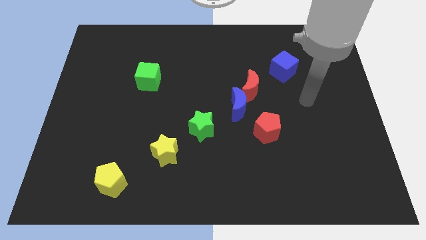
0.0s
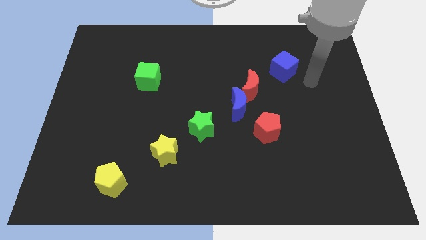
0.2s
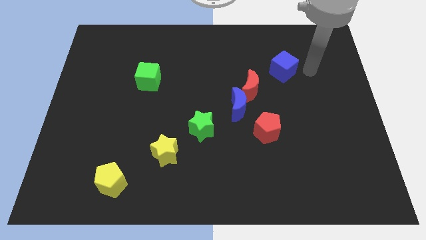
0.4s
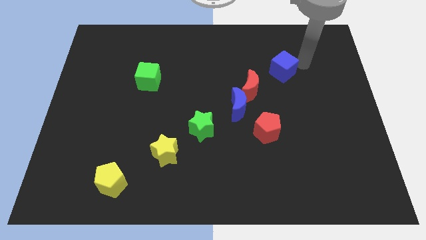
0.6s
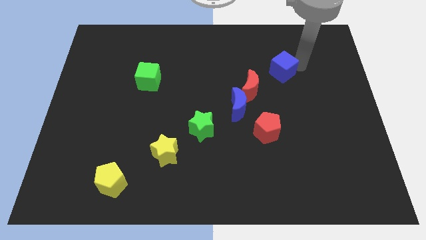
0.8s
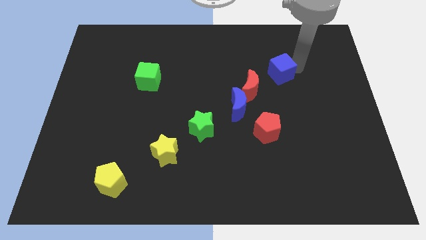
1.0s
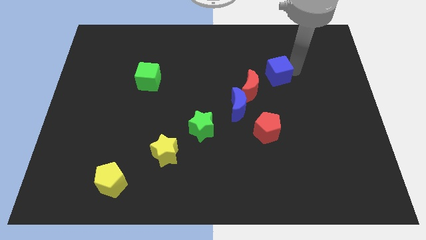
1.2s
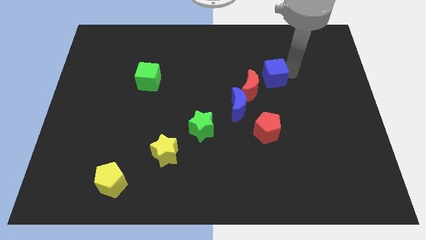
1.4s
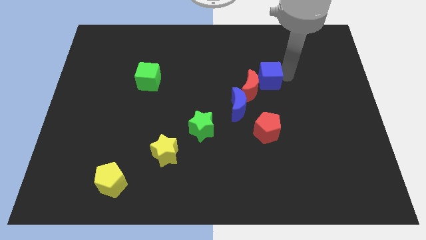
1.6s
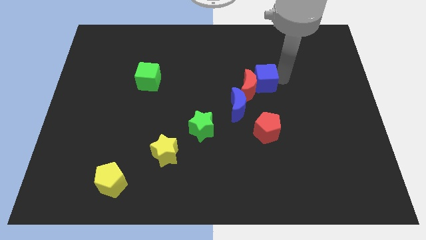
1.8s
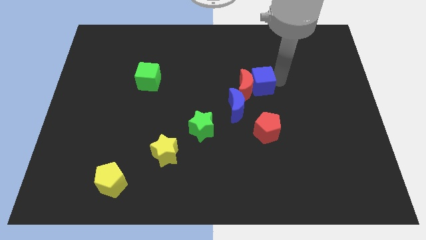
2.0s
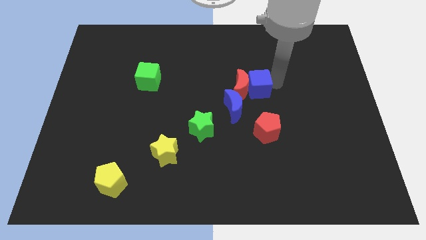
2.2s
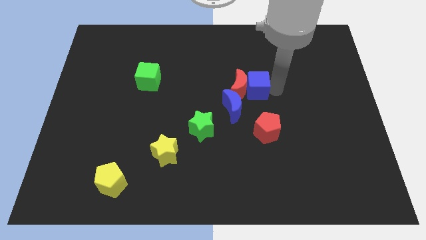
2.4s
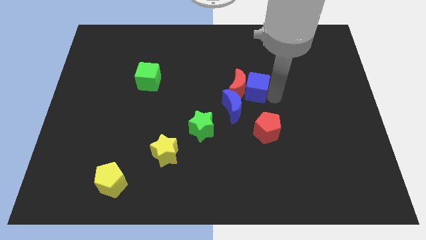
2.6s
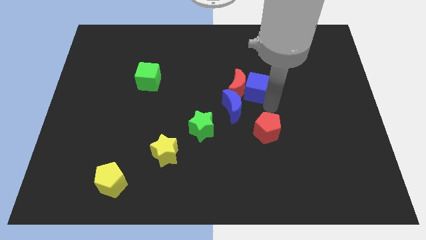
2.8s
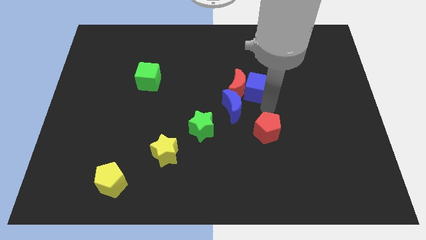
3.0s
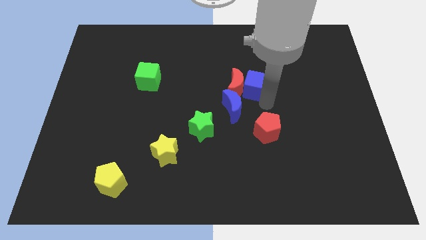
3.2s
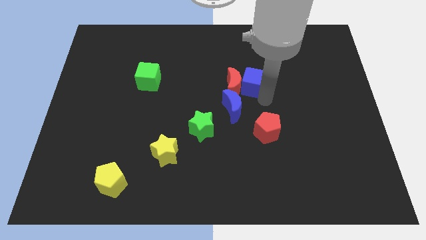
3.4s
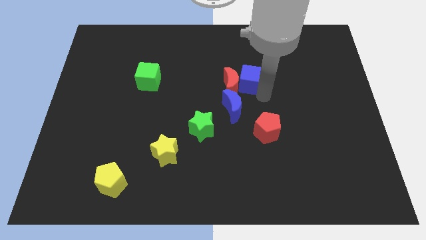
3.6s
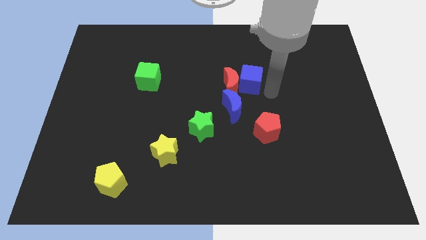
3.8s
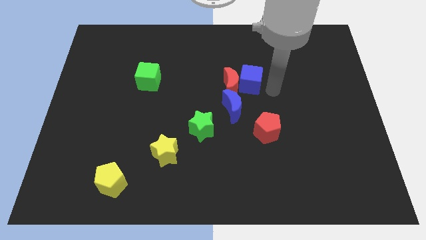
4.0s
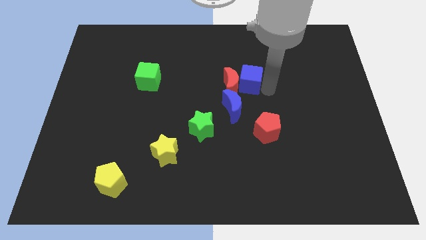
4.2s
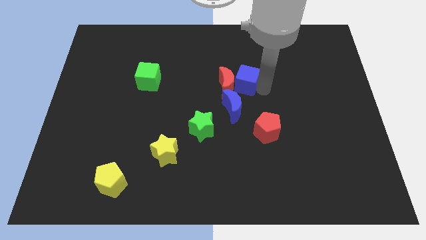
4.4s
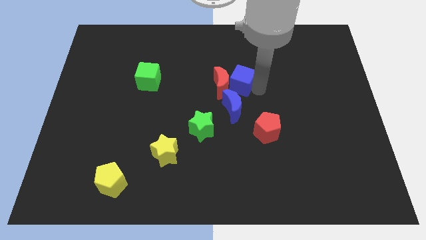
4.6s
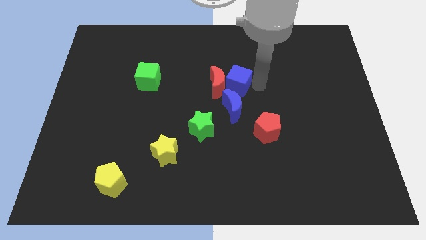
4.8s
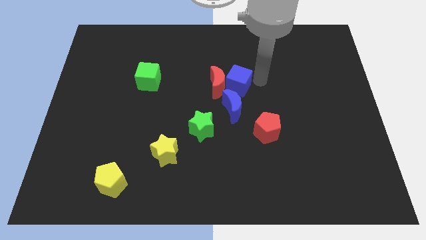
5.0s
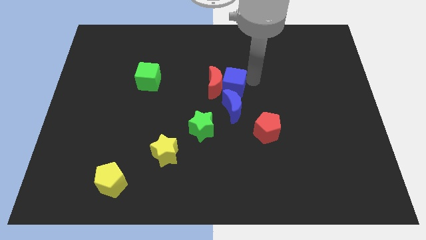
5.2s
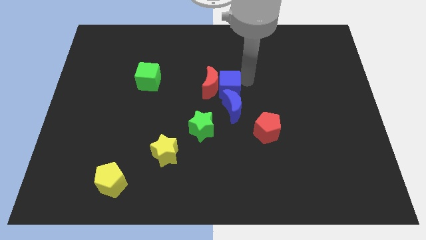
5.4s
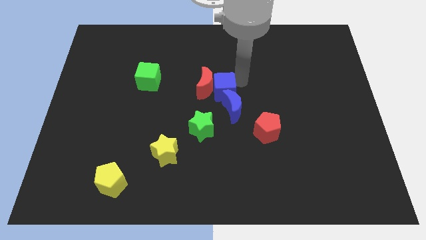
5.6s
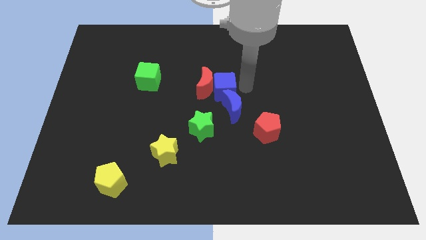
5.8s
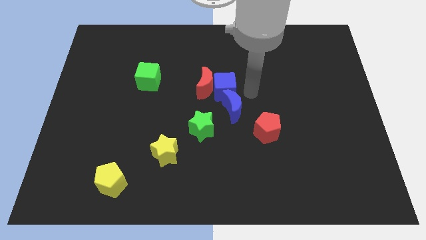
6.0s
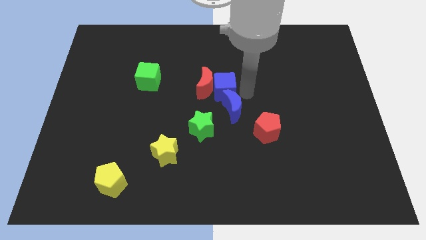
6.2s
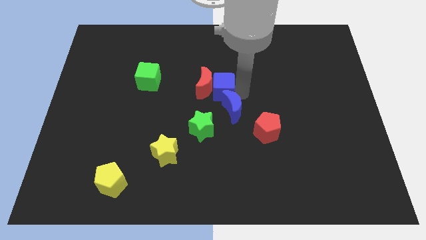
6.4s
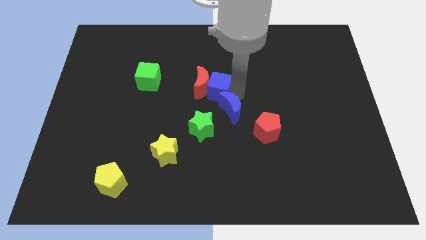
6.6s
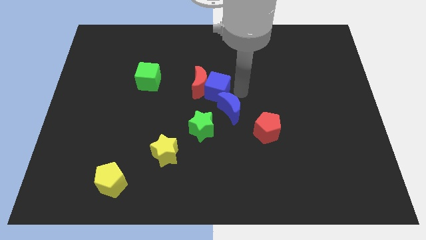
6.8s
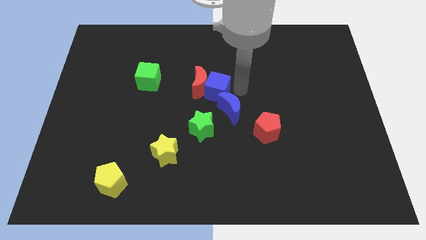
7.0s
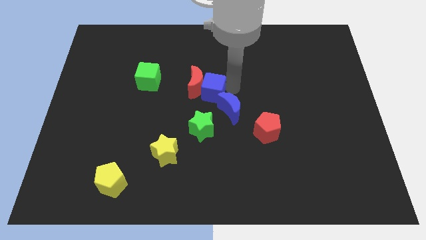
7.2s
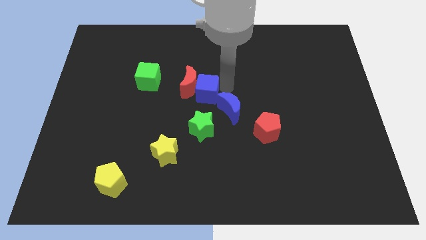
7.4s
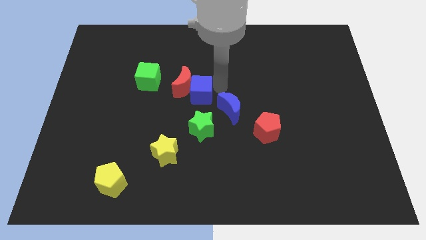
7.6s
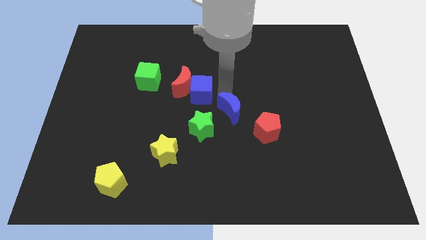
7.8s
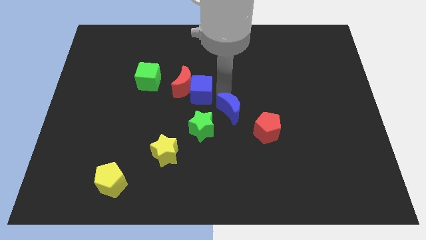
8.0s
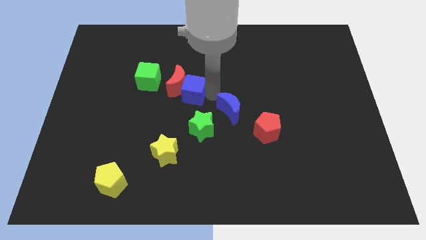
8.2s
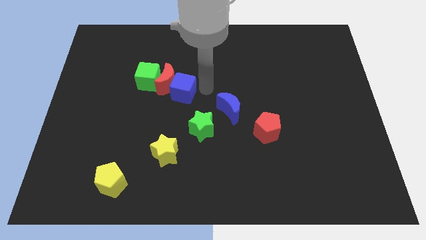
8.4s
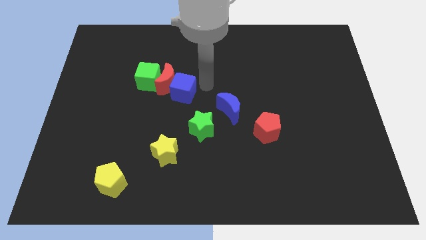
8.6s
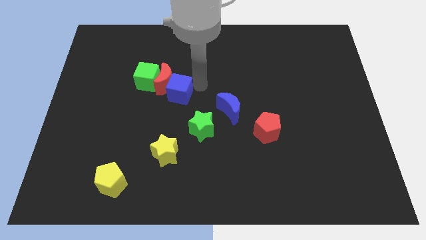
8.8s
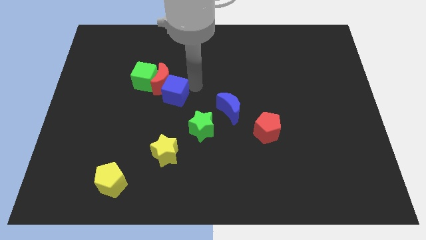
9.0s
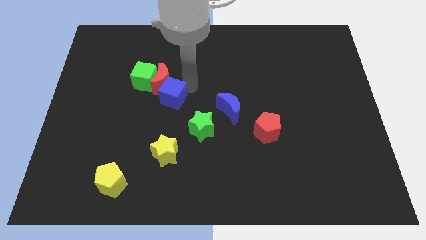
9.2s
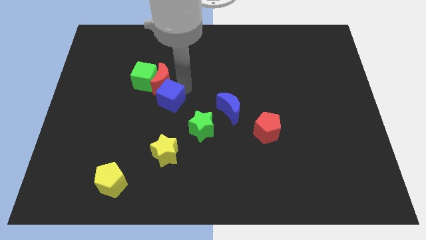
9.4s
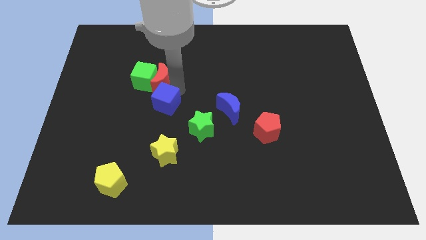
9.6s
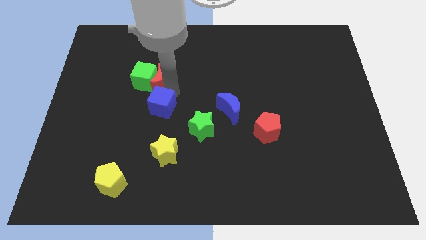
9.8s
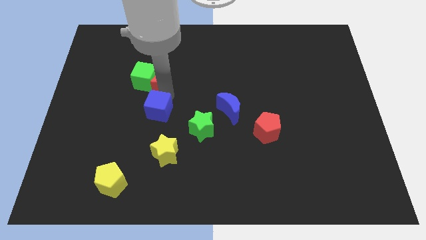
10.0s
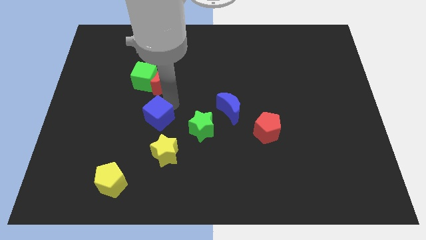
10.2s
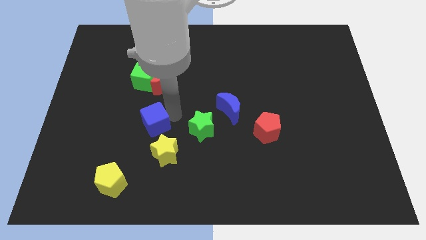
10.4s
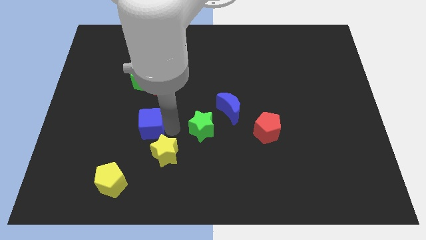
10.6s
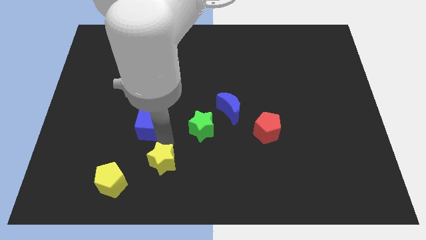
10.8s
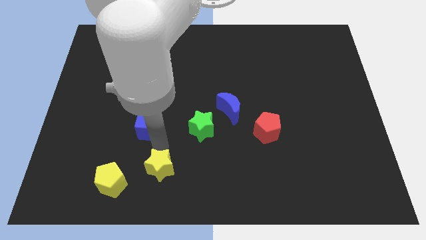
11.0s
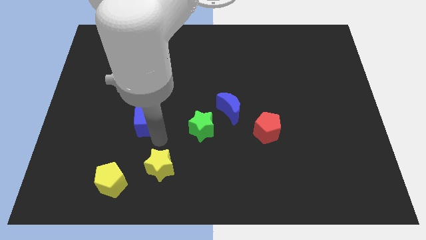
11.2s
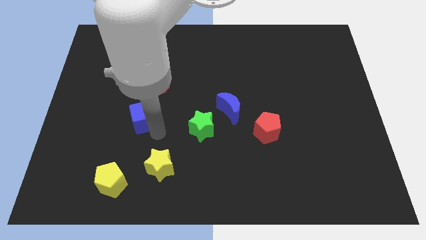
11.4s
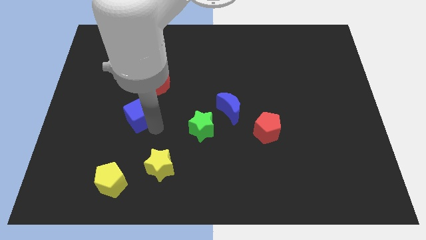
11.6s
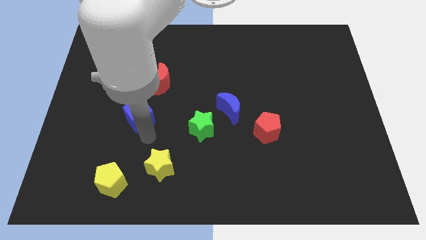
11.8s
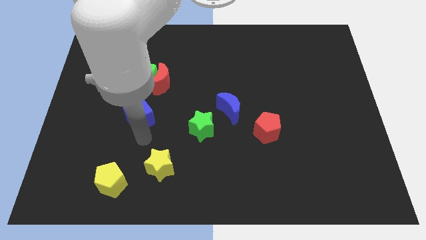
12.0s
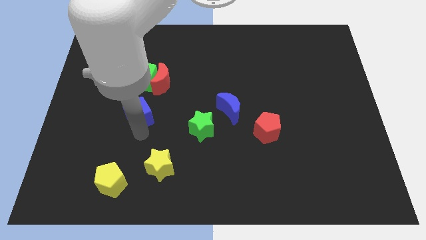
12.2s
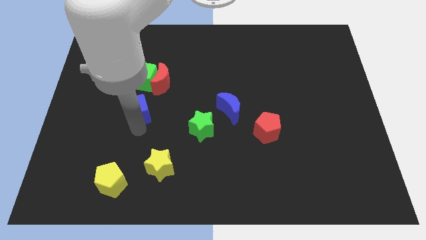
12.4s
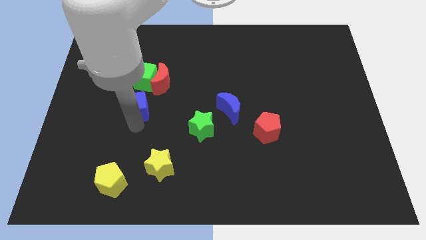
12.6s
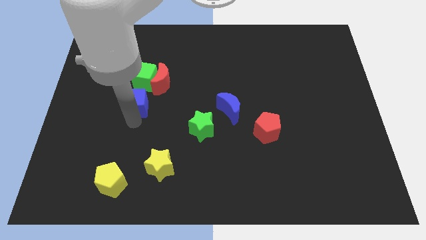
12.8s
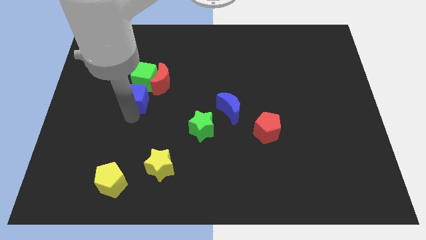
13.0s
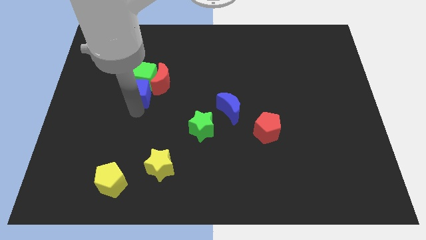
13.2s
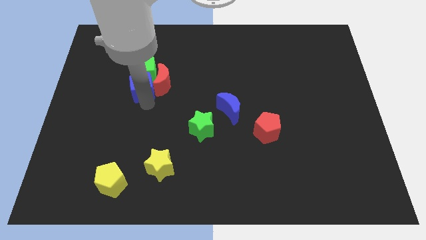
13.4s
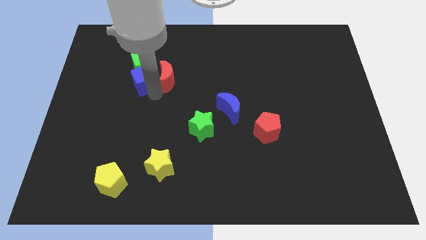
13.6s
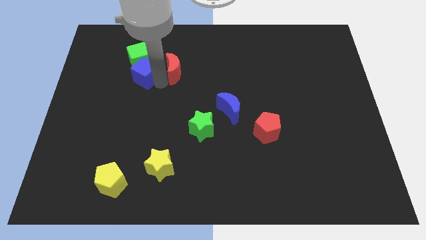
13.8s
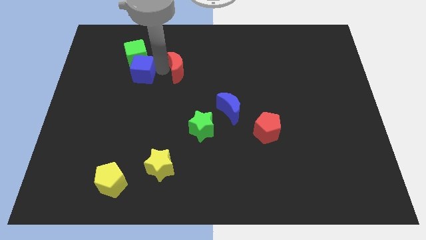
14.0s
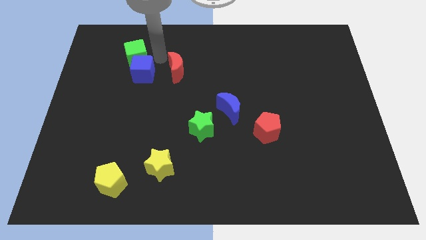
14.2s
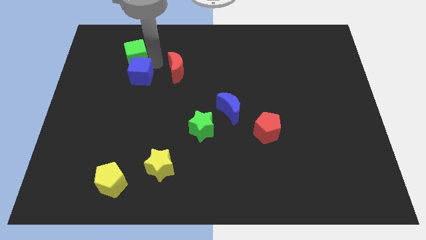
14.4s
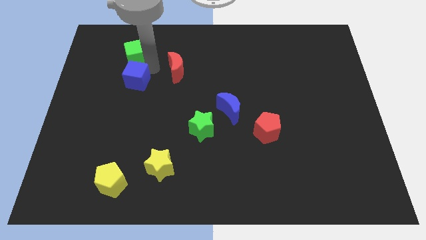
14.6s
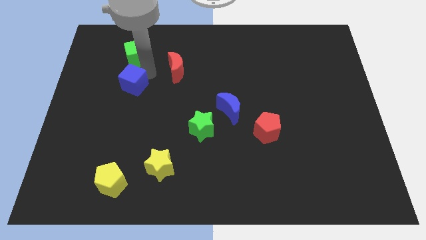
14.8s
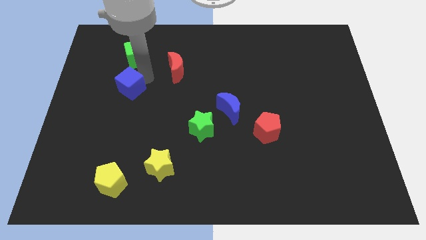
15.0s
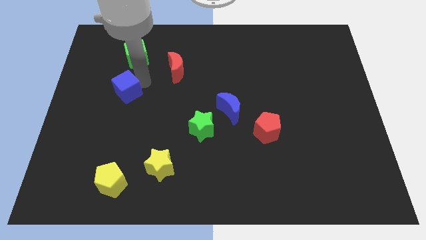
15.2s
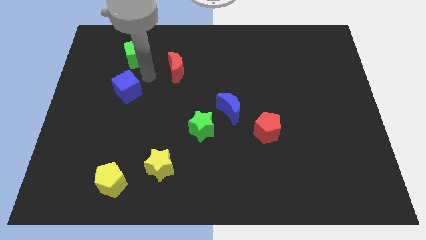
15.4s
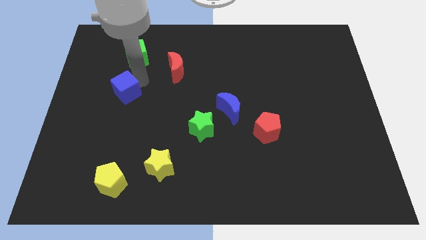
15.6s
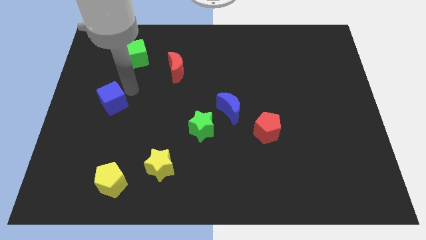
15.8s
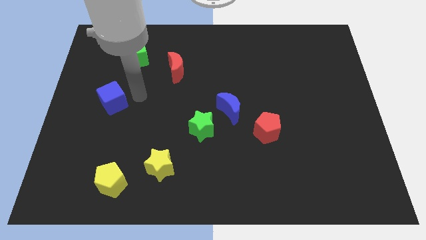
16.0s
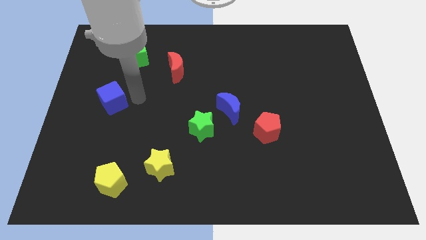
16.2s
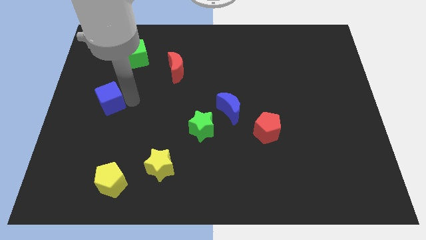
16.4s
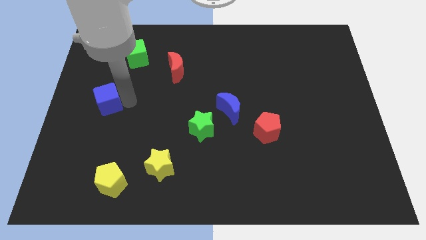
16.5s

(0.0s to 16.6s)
put the blue cube to the left side of the board
